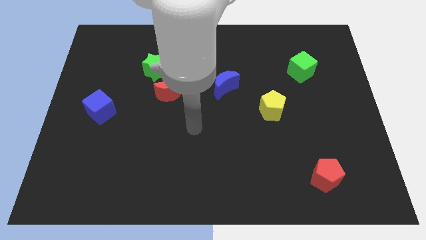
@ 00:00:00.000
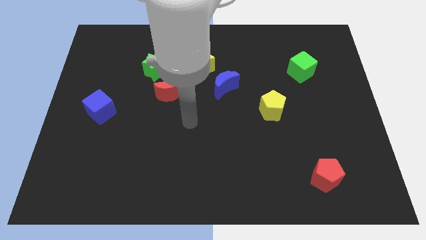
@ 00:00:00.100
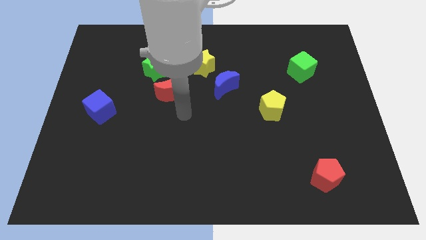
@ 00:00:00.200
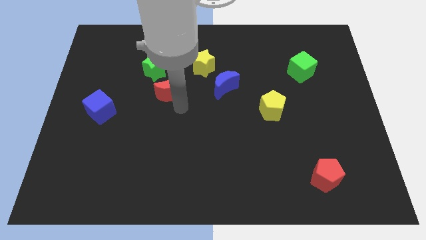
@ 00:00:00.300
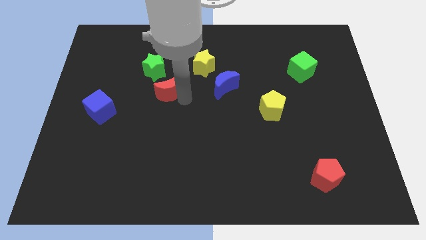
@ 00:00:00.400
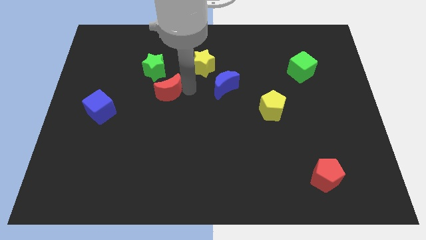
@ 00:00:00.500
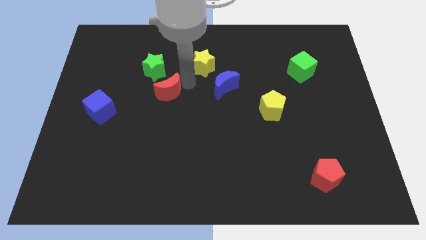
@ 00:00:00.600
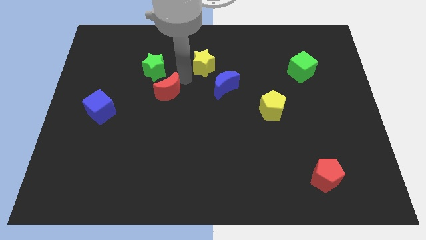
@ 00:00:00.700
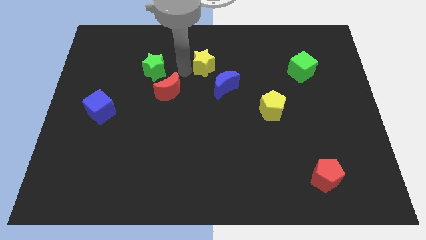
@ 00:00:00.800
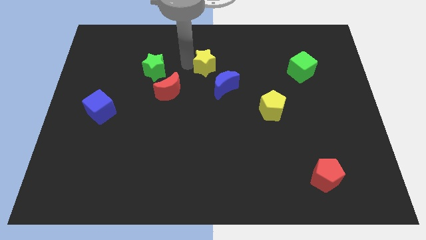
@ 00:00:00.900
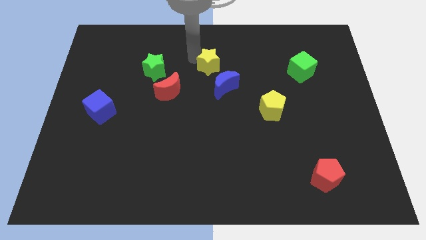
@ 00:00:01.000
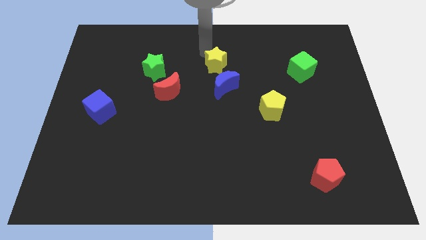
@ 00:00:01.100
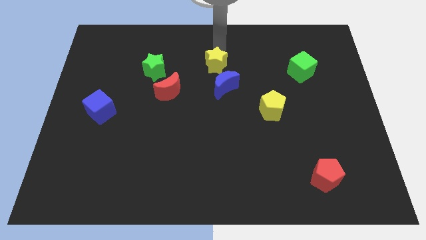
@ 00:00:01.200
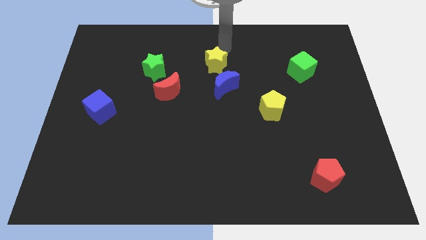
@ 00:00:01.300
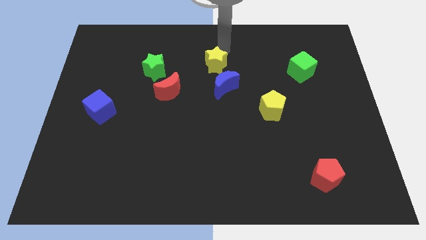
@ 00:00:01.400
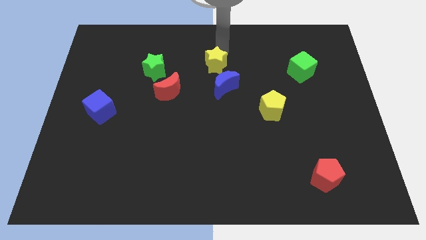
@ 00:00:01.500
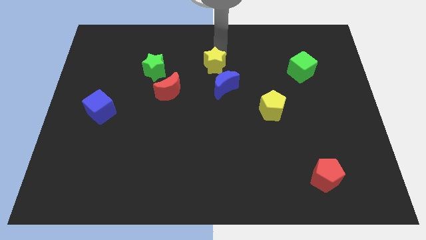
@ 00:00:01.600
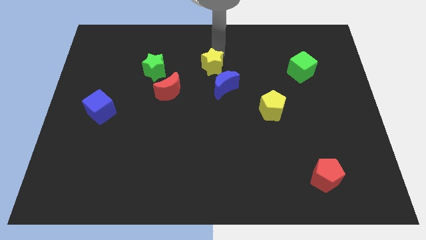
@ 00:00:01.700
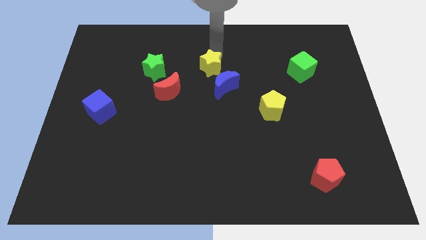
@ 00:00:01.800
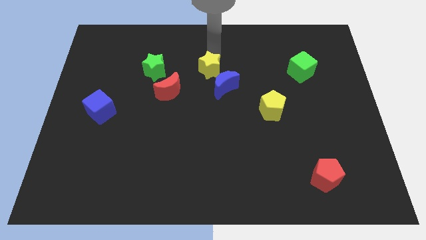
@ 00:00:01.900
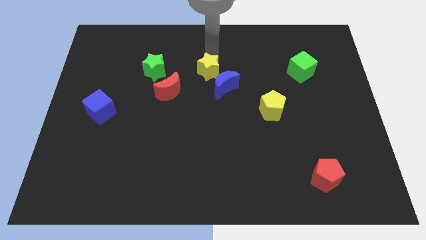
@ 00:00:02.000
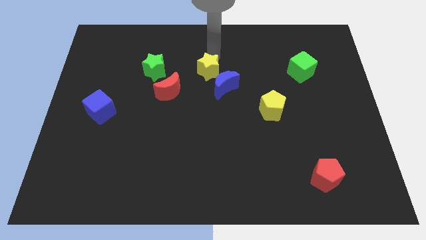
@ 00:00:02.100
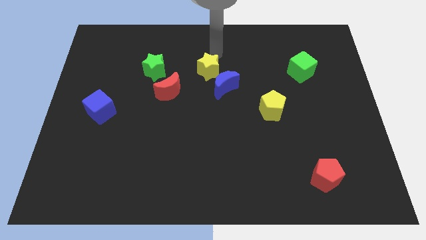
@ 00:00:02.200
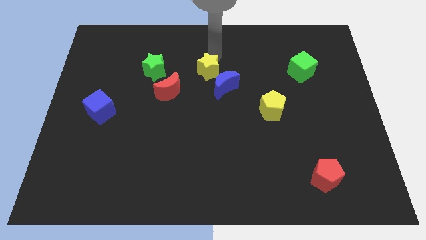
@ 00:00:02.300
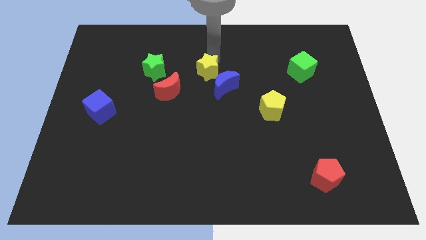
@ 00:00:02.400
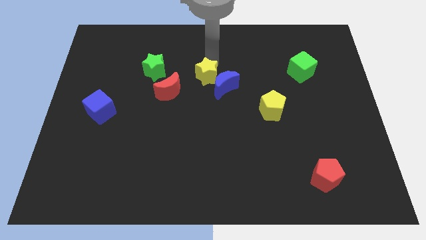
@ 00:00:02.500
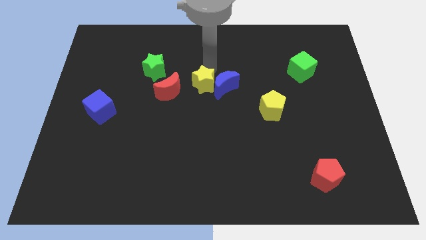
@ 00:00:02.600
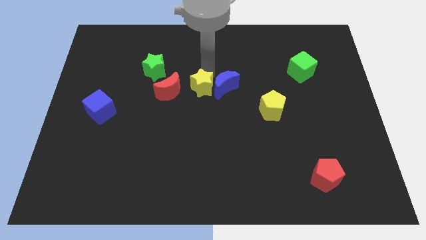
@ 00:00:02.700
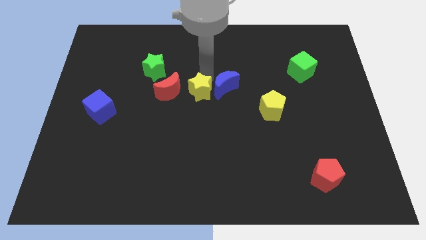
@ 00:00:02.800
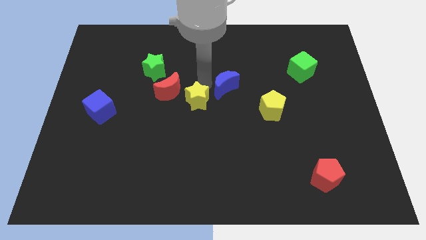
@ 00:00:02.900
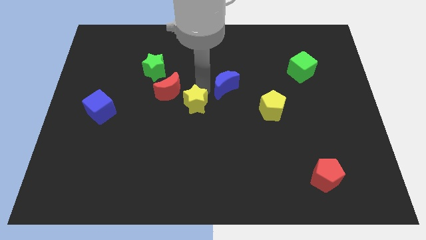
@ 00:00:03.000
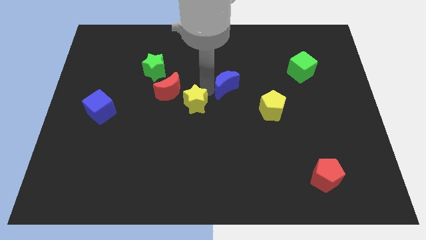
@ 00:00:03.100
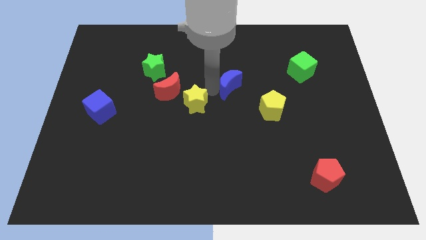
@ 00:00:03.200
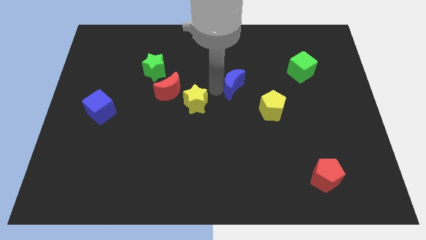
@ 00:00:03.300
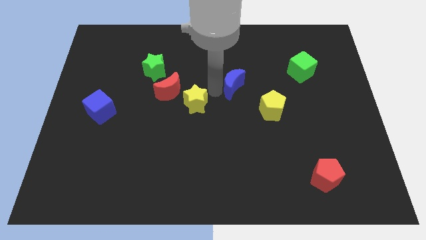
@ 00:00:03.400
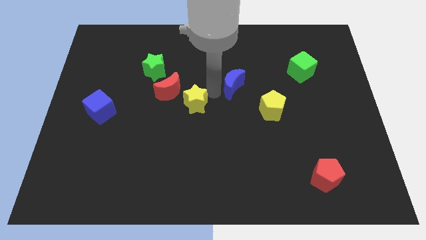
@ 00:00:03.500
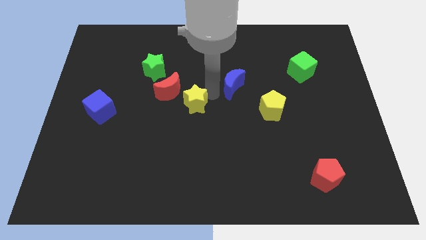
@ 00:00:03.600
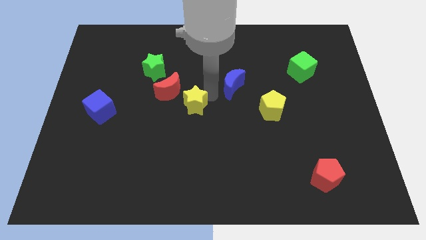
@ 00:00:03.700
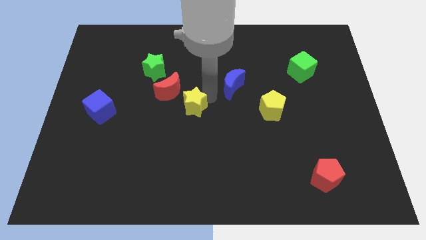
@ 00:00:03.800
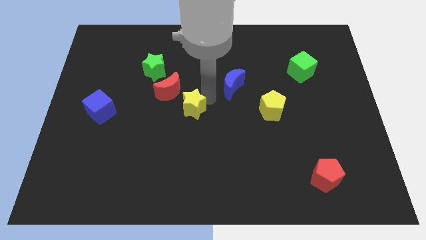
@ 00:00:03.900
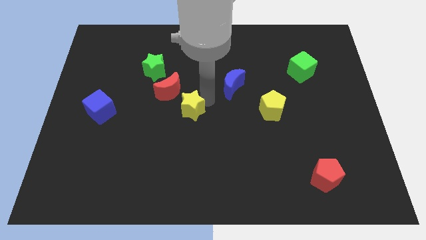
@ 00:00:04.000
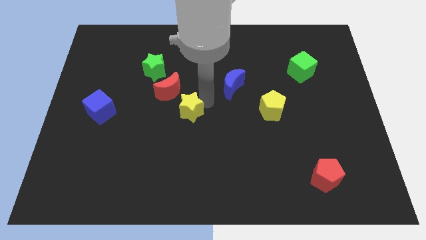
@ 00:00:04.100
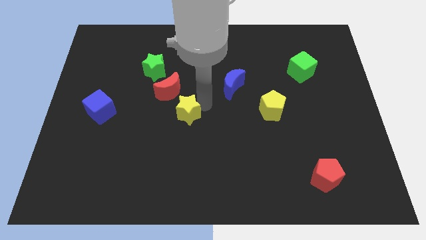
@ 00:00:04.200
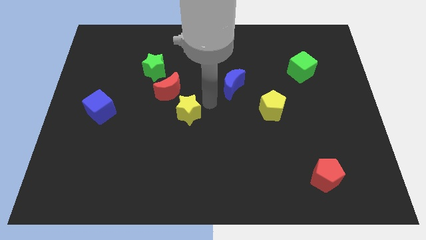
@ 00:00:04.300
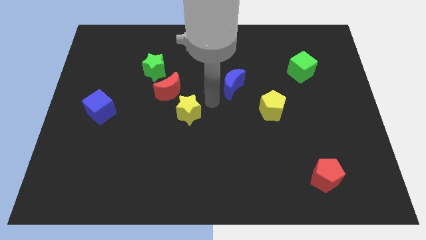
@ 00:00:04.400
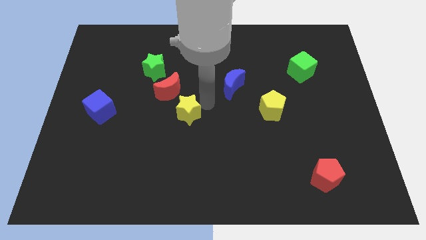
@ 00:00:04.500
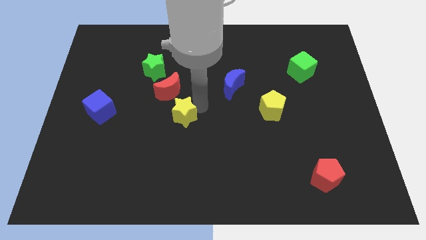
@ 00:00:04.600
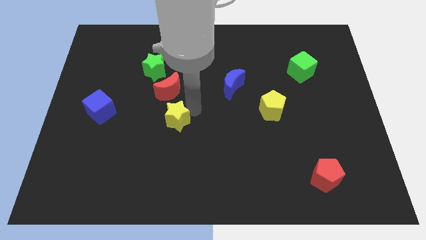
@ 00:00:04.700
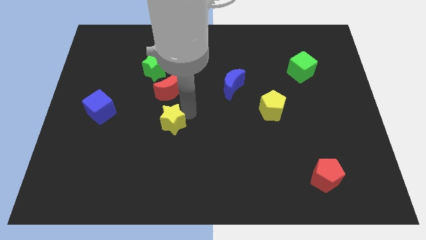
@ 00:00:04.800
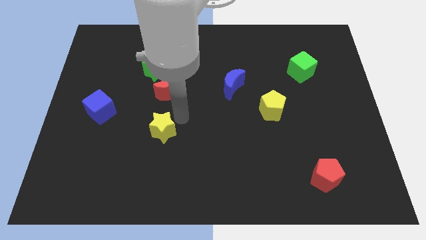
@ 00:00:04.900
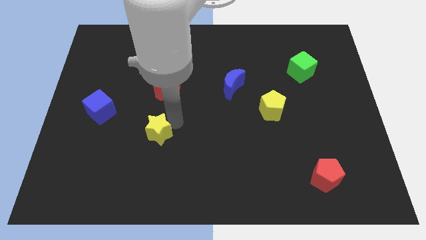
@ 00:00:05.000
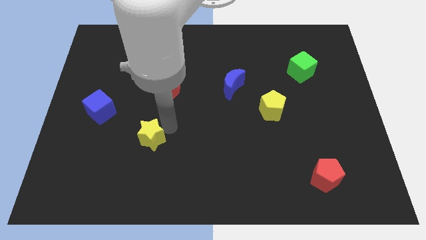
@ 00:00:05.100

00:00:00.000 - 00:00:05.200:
push the yellow star diagonally downwards and left

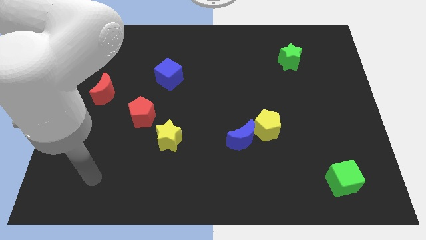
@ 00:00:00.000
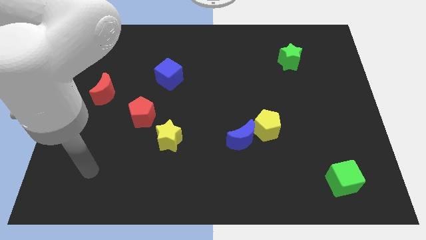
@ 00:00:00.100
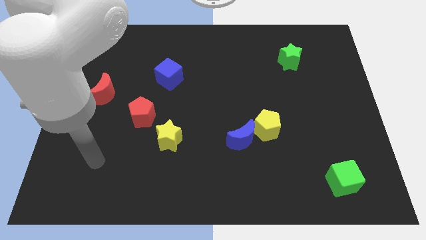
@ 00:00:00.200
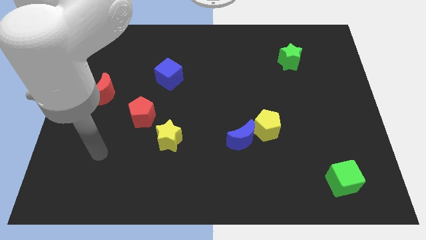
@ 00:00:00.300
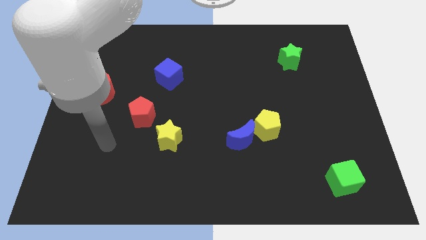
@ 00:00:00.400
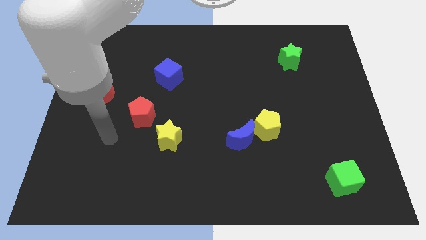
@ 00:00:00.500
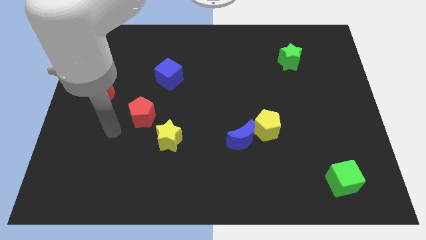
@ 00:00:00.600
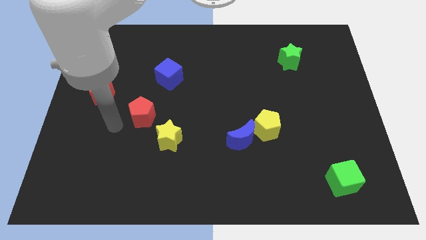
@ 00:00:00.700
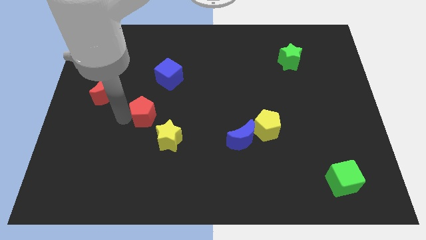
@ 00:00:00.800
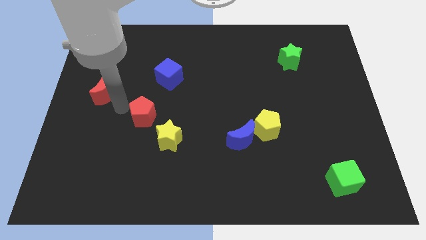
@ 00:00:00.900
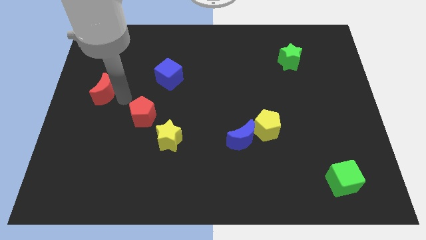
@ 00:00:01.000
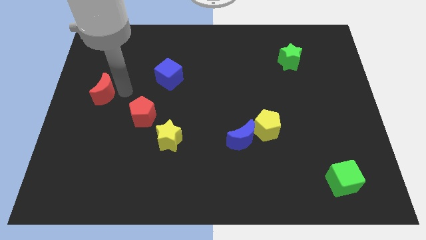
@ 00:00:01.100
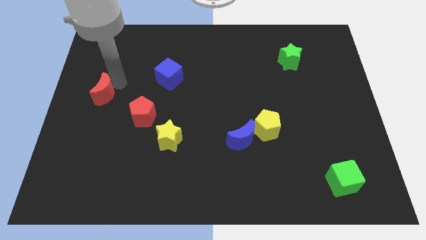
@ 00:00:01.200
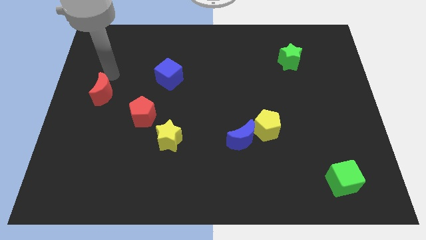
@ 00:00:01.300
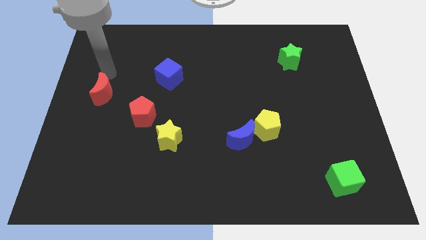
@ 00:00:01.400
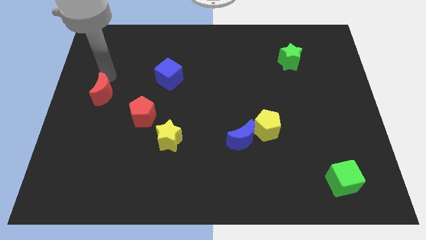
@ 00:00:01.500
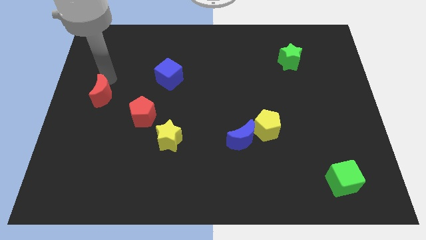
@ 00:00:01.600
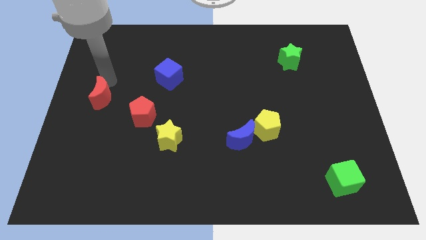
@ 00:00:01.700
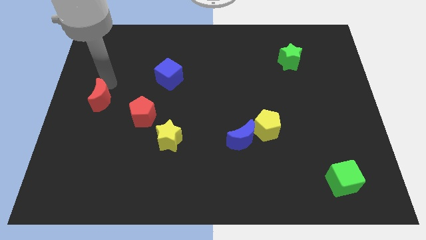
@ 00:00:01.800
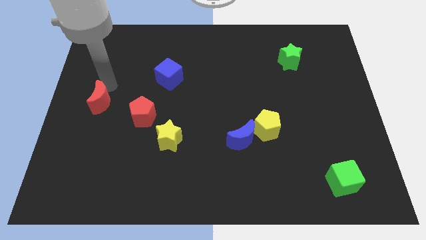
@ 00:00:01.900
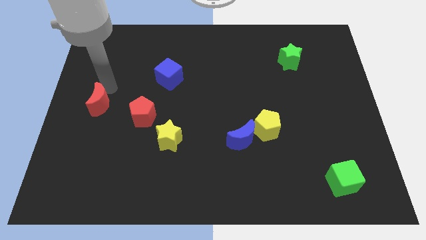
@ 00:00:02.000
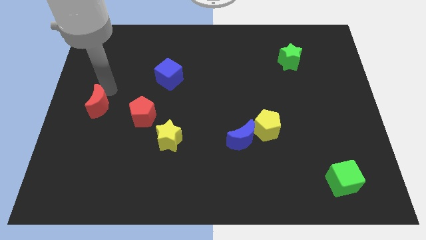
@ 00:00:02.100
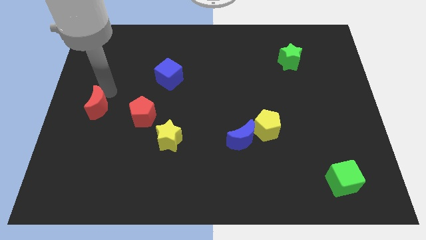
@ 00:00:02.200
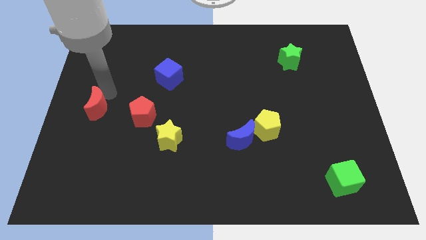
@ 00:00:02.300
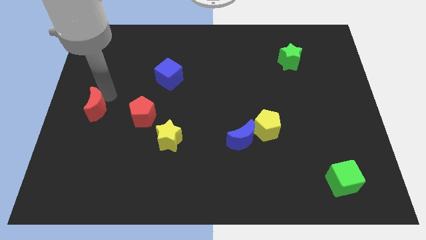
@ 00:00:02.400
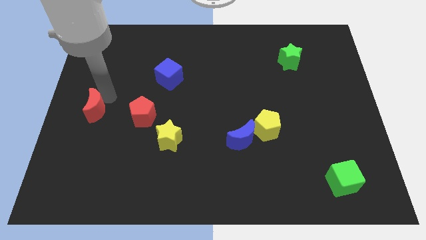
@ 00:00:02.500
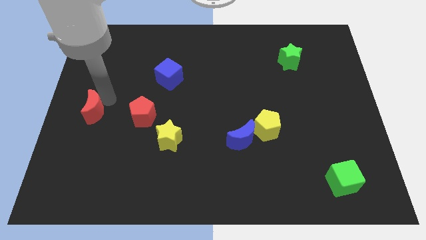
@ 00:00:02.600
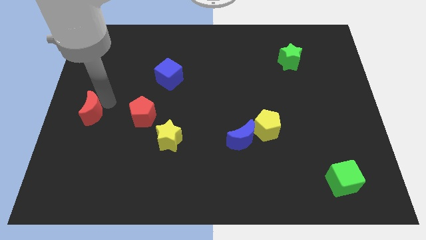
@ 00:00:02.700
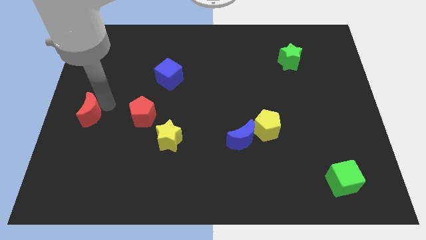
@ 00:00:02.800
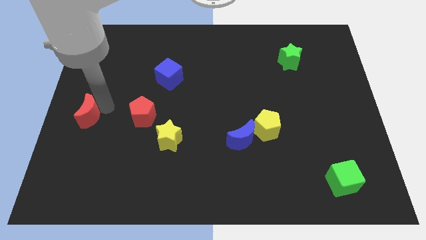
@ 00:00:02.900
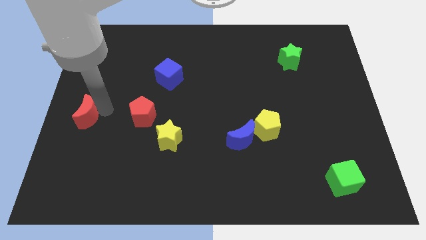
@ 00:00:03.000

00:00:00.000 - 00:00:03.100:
slightly push the red moon downwards
